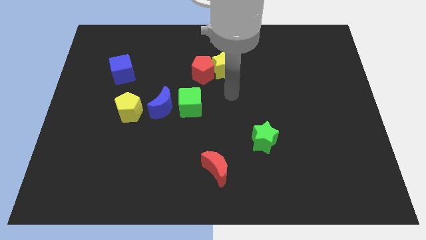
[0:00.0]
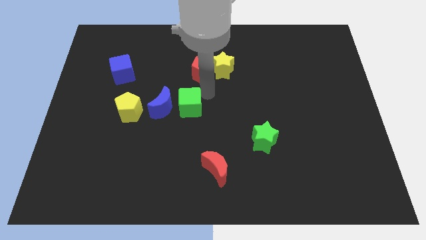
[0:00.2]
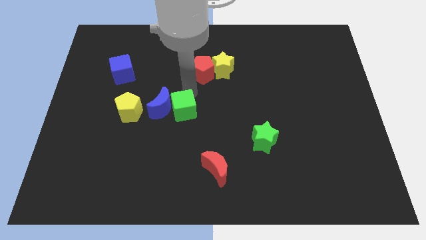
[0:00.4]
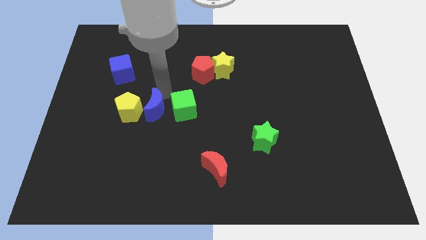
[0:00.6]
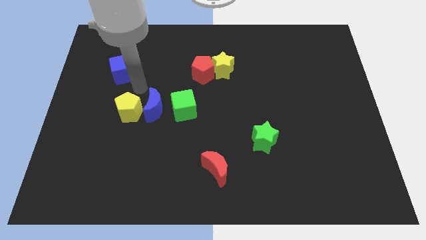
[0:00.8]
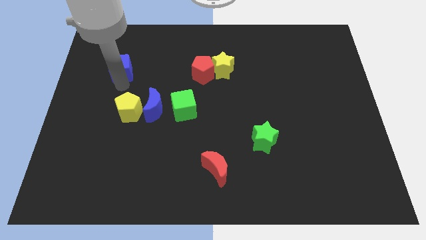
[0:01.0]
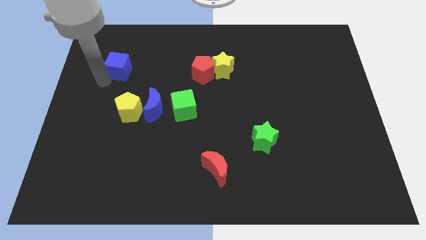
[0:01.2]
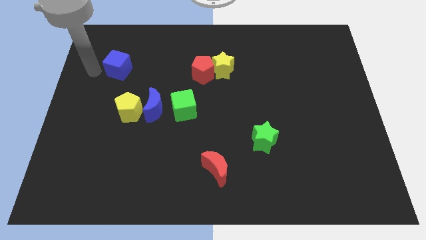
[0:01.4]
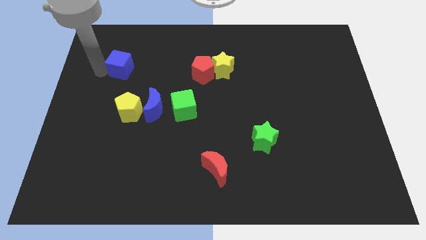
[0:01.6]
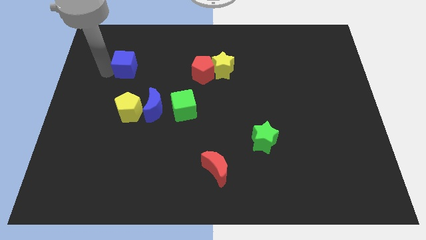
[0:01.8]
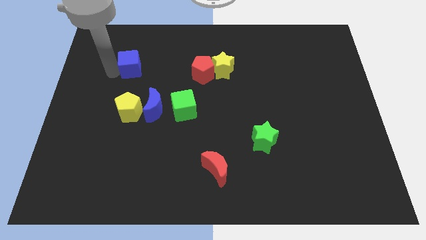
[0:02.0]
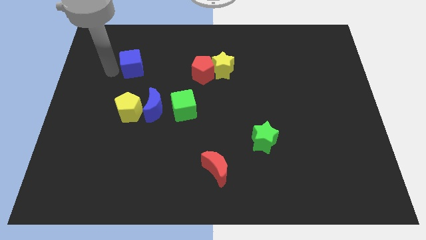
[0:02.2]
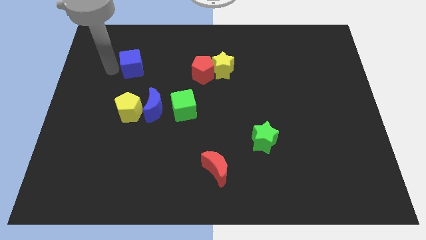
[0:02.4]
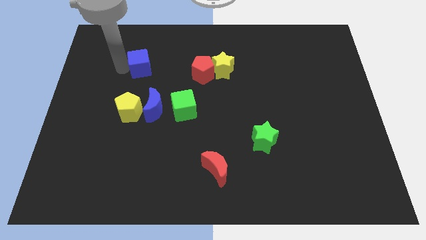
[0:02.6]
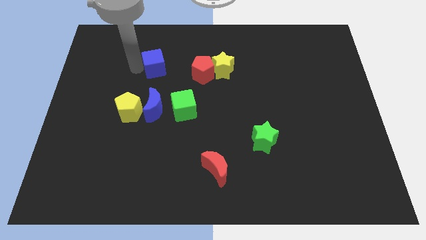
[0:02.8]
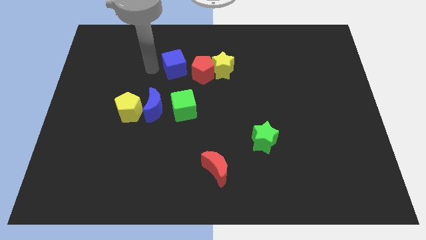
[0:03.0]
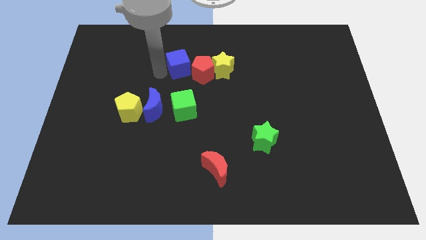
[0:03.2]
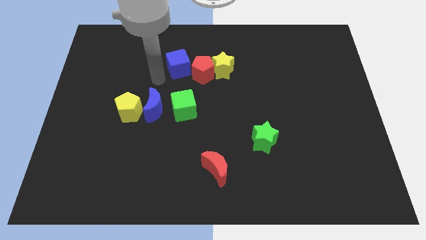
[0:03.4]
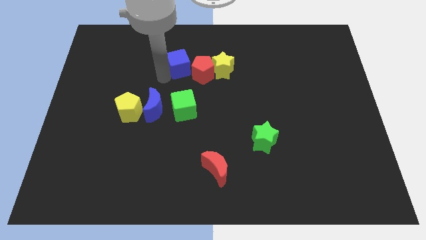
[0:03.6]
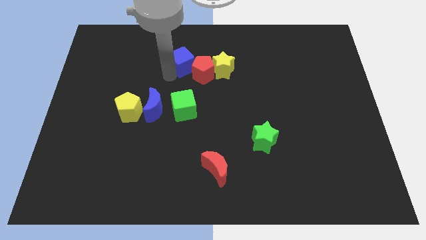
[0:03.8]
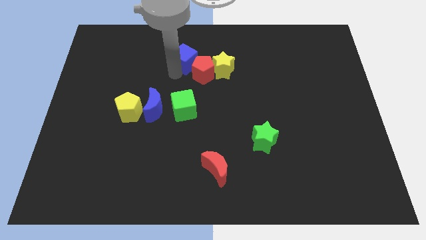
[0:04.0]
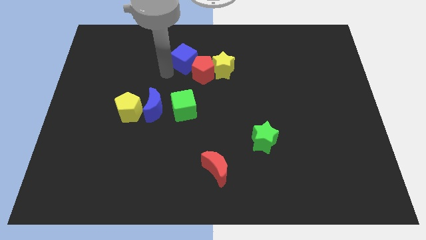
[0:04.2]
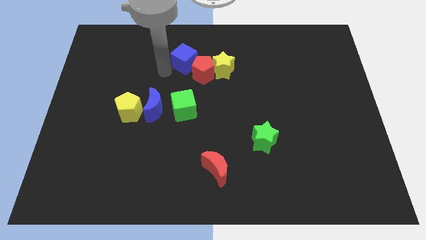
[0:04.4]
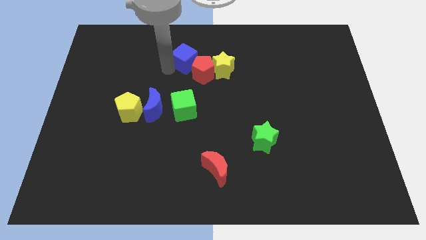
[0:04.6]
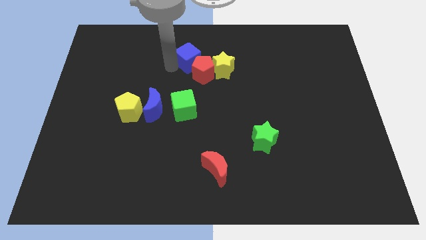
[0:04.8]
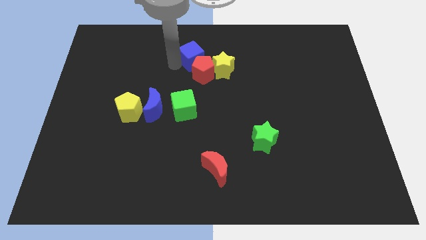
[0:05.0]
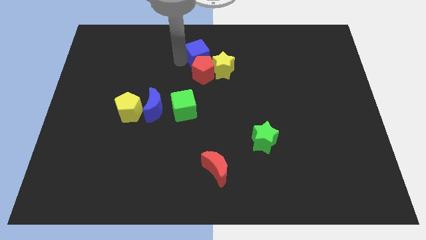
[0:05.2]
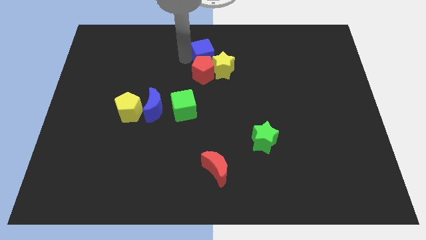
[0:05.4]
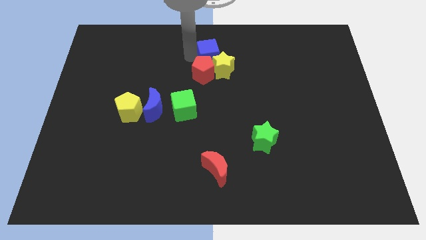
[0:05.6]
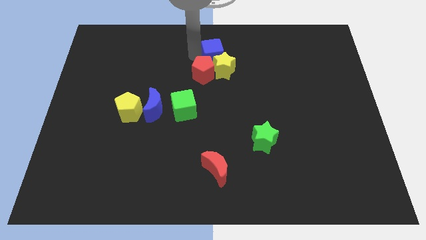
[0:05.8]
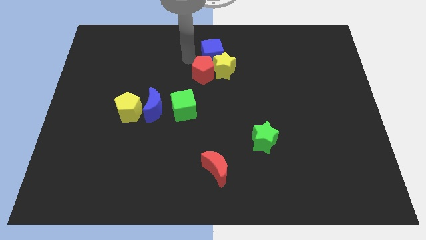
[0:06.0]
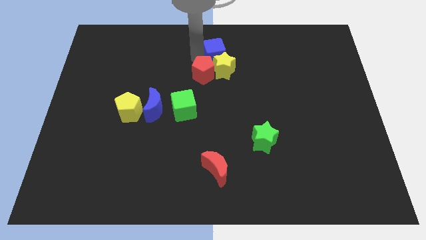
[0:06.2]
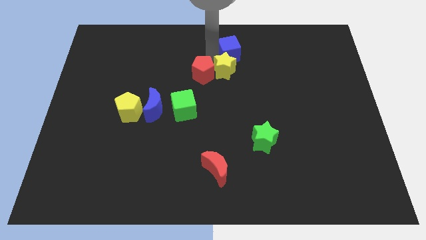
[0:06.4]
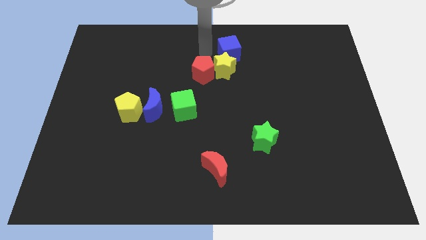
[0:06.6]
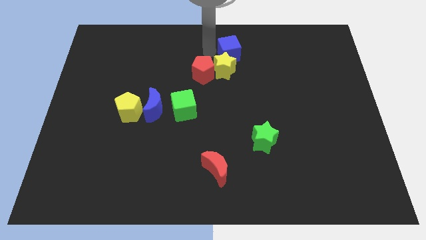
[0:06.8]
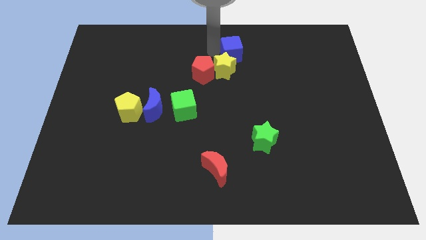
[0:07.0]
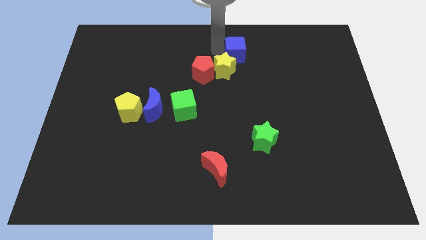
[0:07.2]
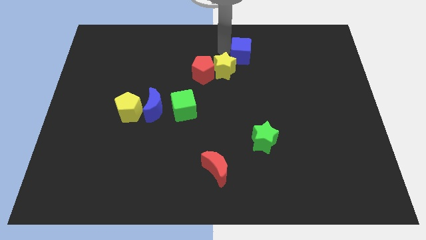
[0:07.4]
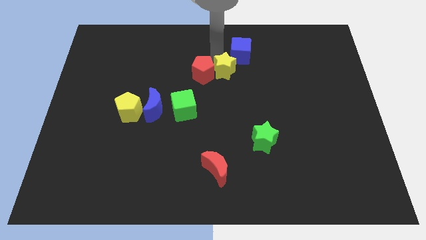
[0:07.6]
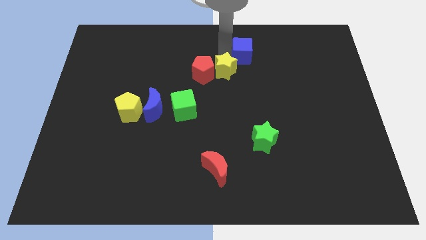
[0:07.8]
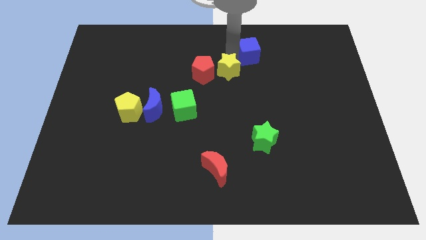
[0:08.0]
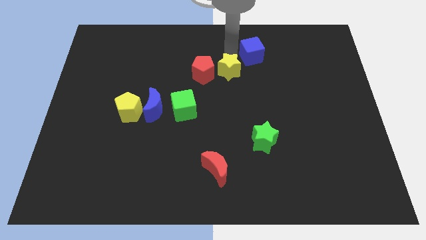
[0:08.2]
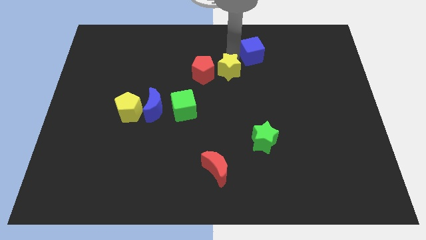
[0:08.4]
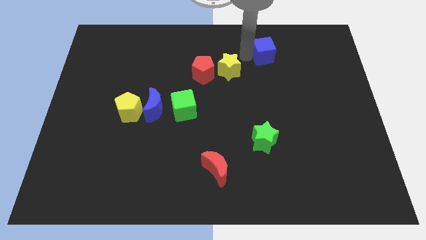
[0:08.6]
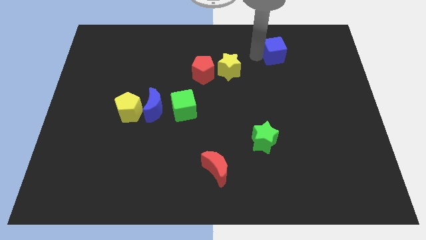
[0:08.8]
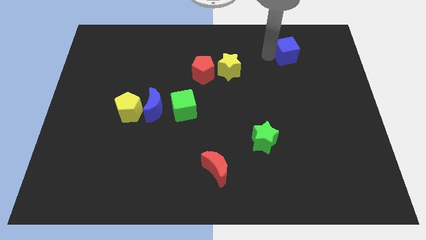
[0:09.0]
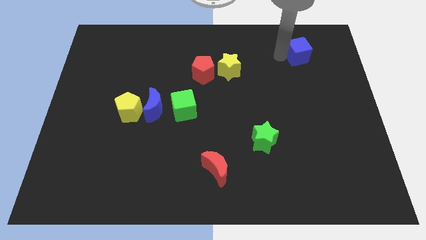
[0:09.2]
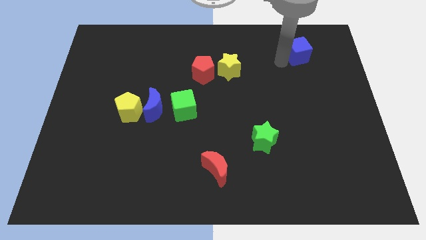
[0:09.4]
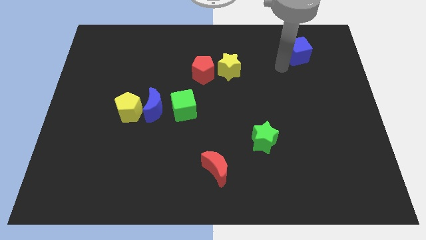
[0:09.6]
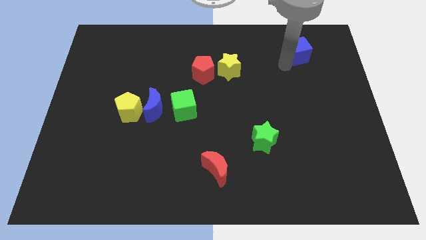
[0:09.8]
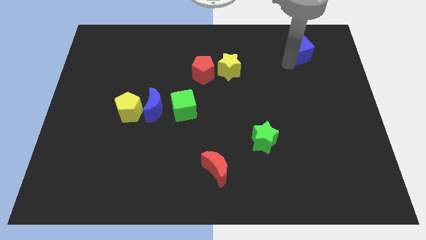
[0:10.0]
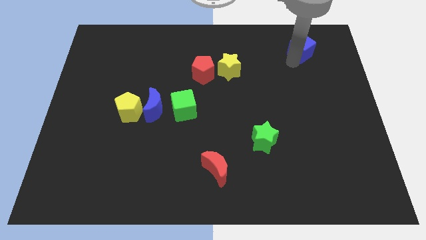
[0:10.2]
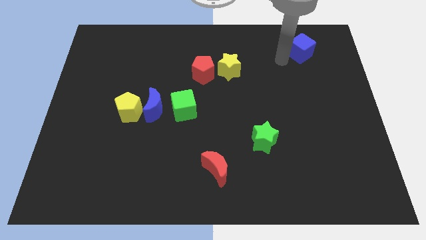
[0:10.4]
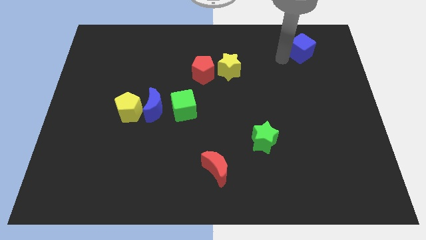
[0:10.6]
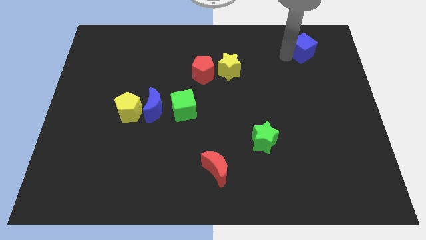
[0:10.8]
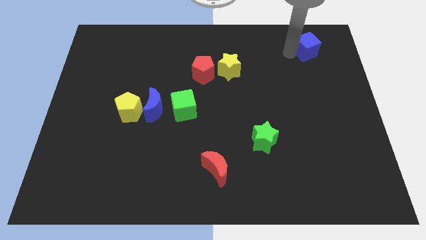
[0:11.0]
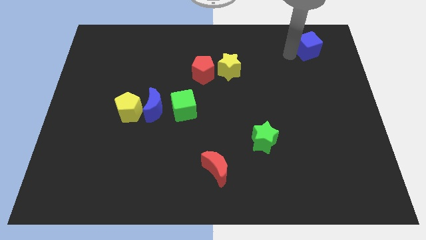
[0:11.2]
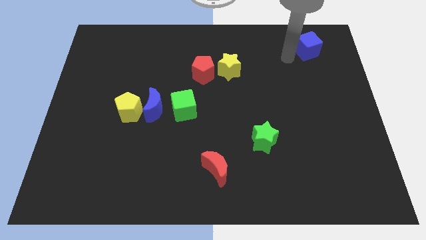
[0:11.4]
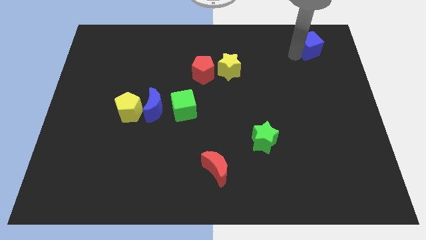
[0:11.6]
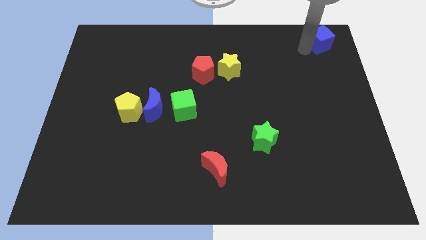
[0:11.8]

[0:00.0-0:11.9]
put the blue cube to the top right
